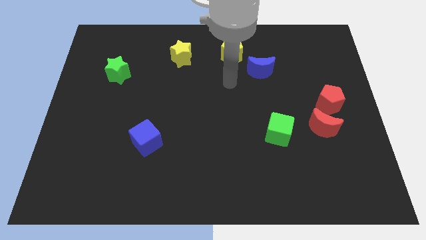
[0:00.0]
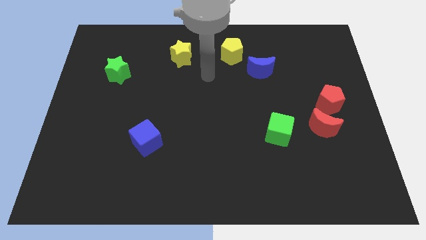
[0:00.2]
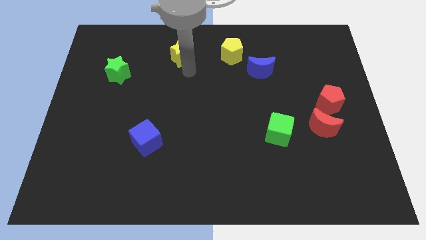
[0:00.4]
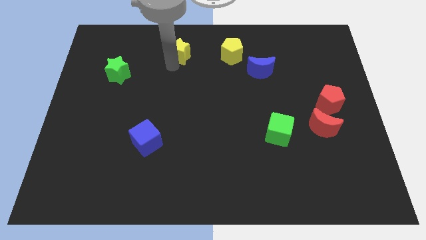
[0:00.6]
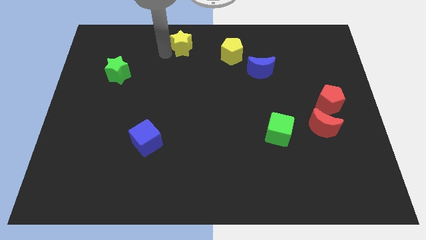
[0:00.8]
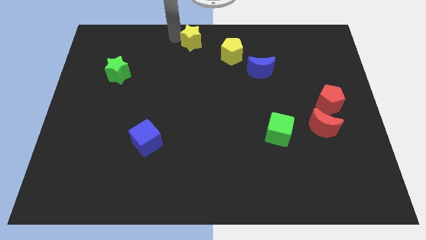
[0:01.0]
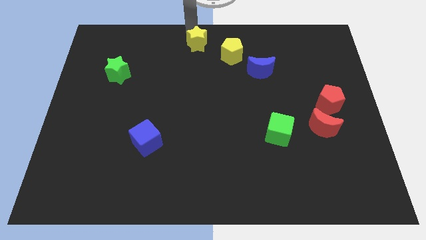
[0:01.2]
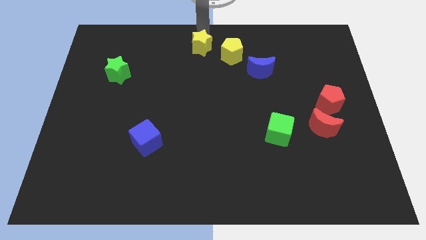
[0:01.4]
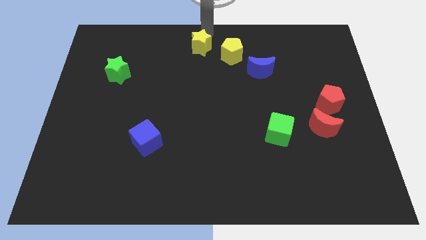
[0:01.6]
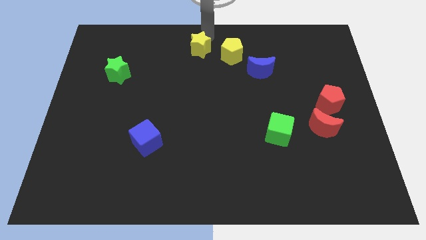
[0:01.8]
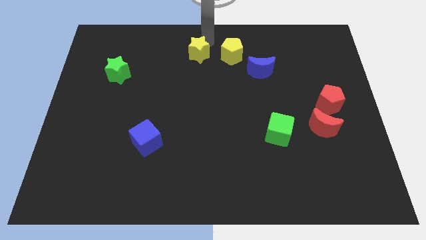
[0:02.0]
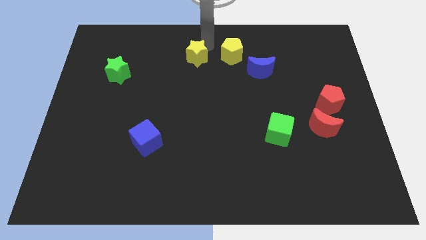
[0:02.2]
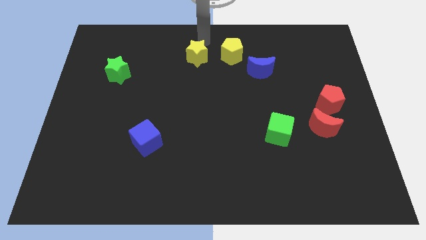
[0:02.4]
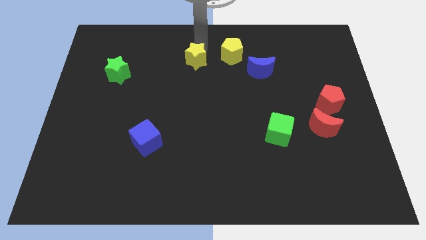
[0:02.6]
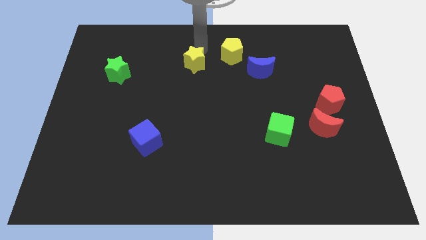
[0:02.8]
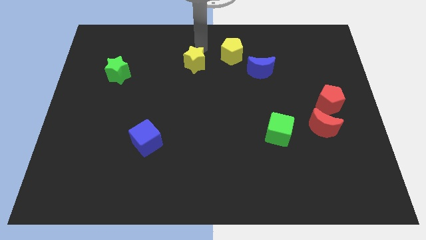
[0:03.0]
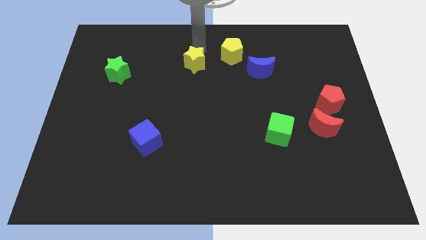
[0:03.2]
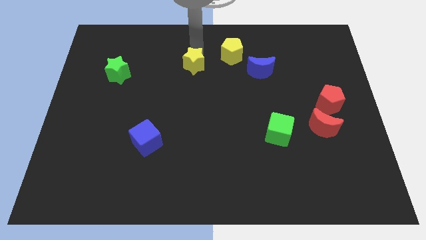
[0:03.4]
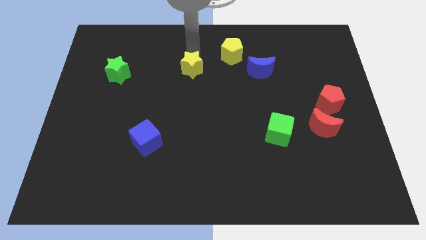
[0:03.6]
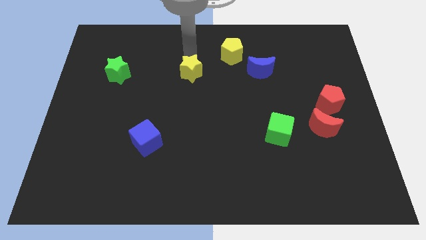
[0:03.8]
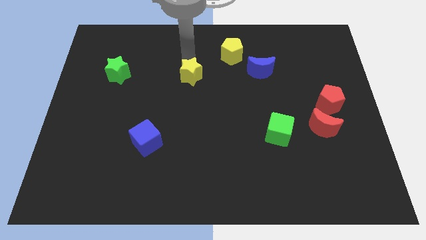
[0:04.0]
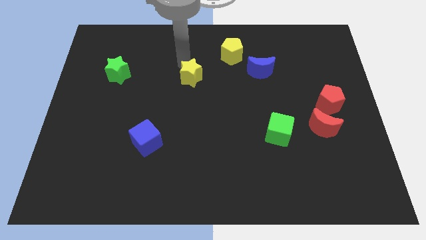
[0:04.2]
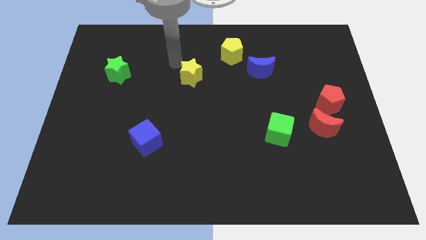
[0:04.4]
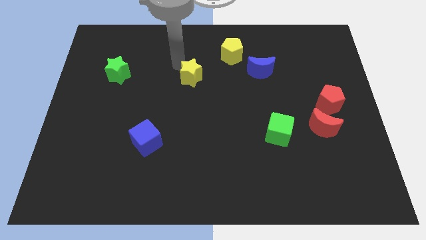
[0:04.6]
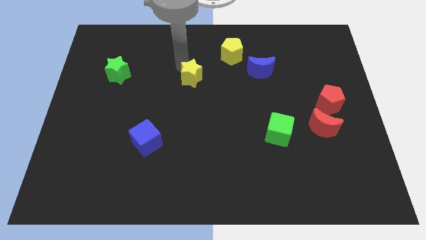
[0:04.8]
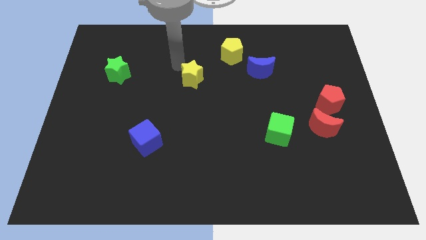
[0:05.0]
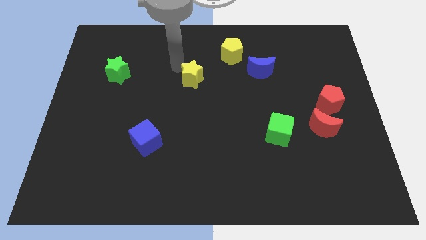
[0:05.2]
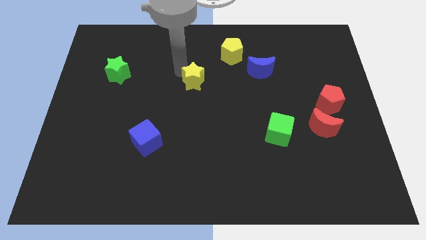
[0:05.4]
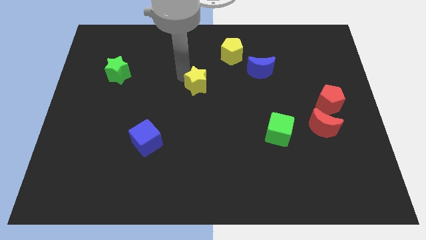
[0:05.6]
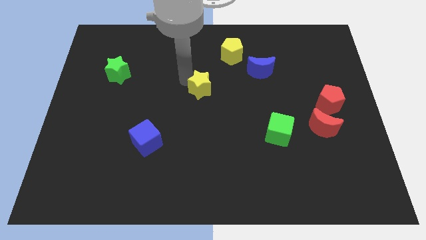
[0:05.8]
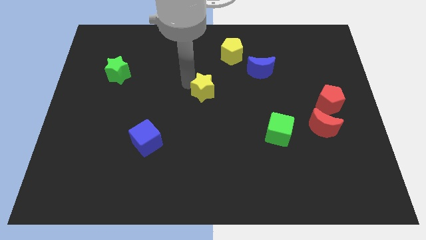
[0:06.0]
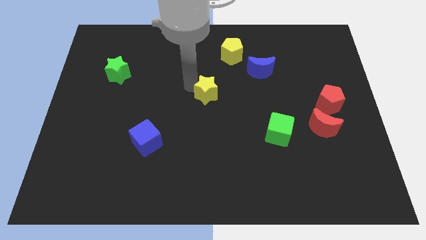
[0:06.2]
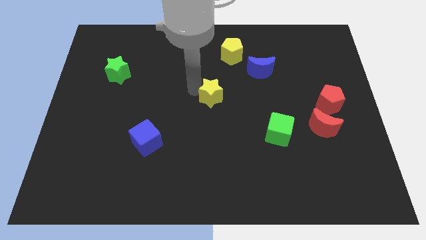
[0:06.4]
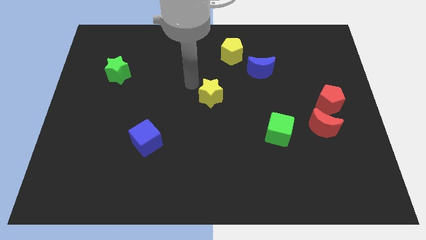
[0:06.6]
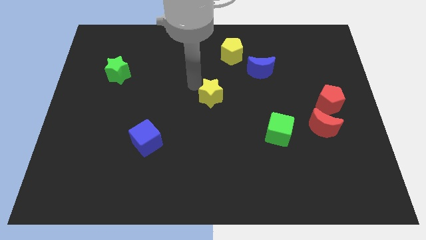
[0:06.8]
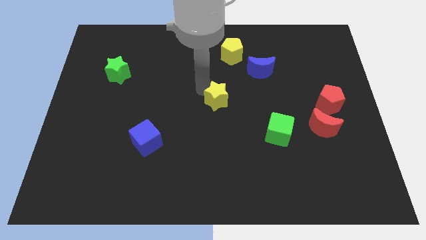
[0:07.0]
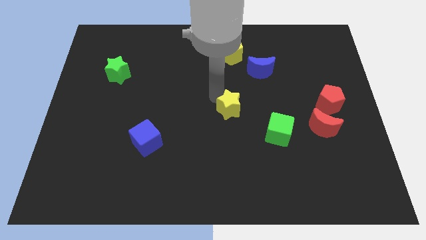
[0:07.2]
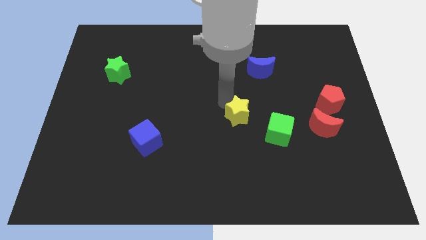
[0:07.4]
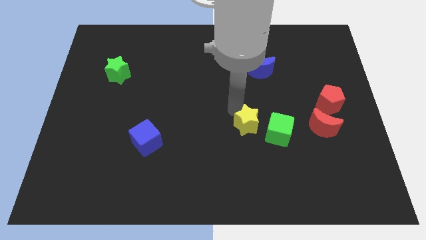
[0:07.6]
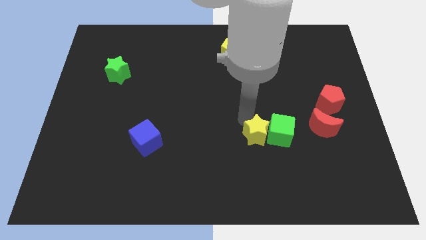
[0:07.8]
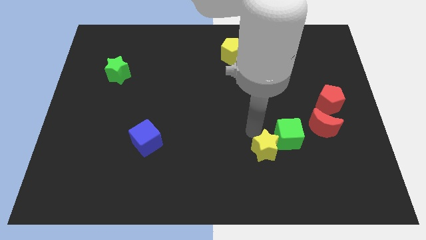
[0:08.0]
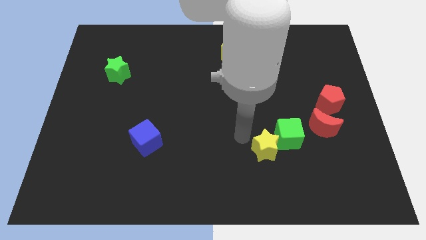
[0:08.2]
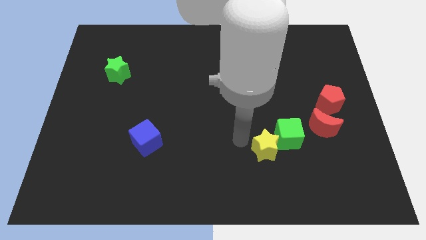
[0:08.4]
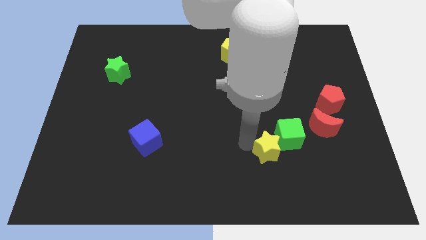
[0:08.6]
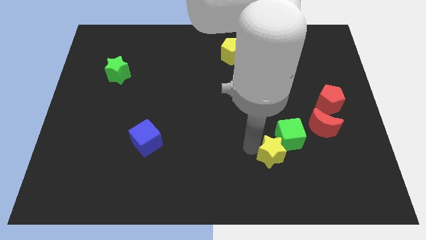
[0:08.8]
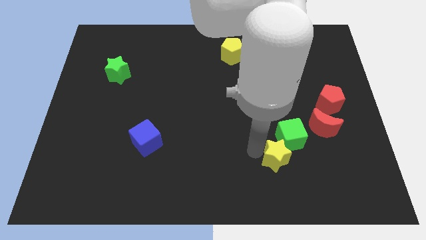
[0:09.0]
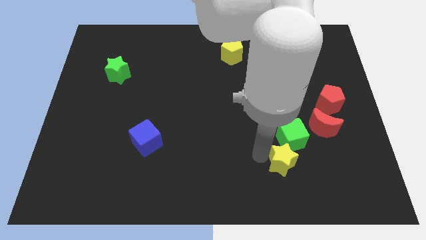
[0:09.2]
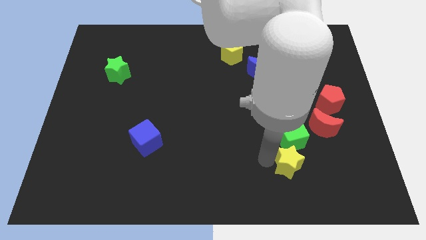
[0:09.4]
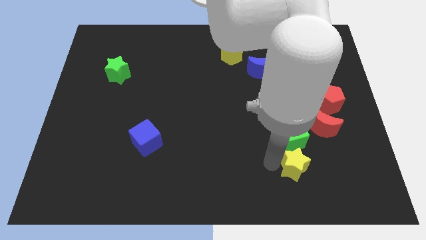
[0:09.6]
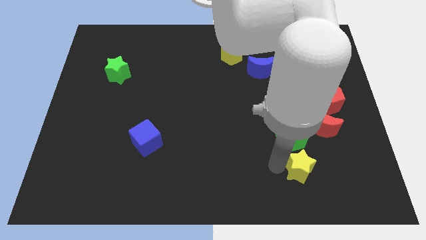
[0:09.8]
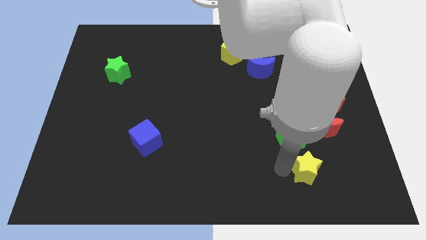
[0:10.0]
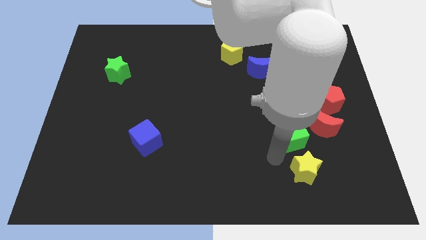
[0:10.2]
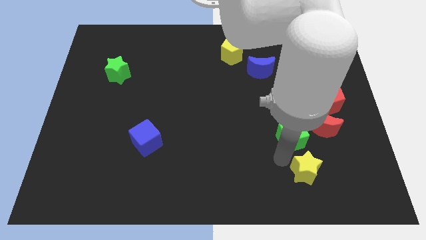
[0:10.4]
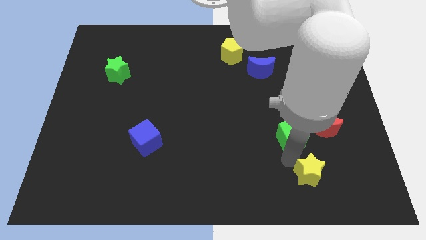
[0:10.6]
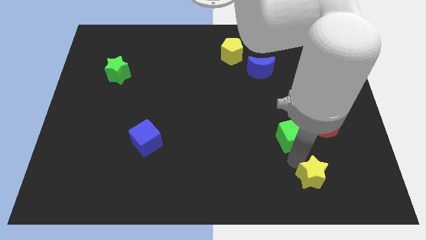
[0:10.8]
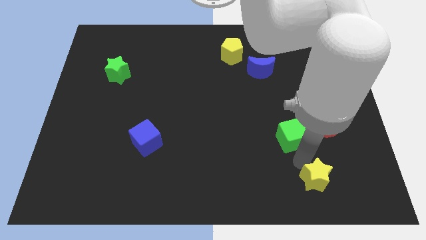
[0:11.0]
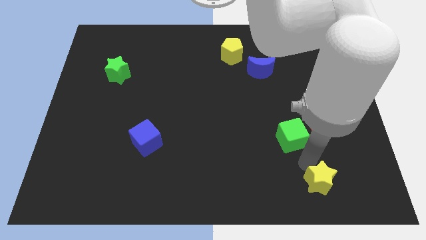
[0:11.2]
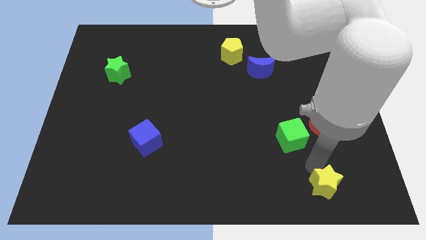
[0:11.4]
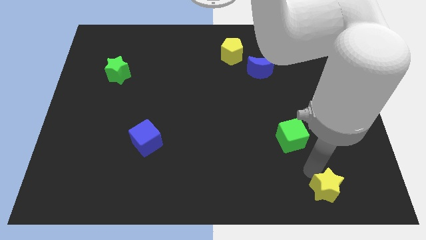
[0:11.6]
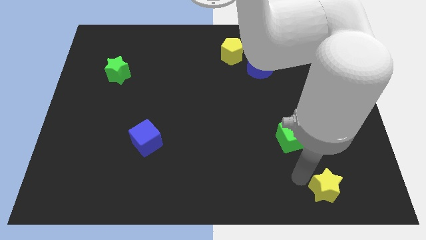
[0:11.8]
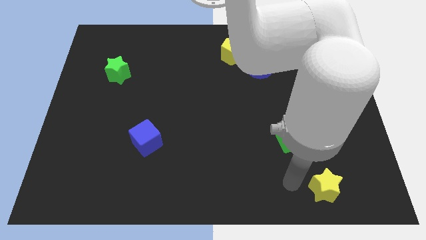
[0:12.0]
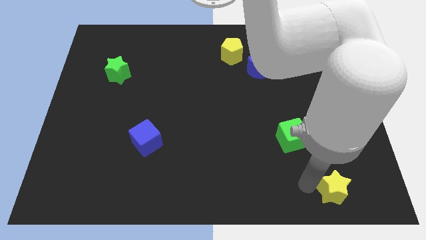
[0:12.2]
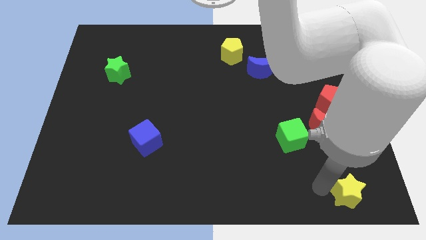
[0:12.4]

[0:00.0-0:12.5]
slide the yellow star to the bottom right corner
